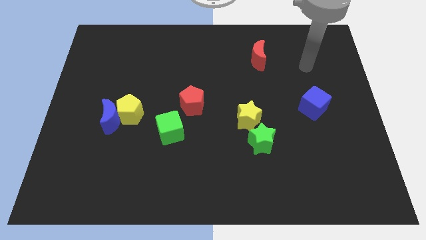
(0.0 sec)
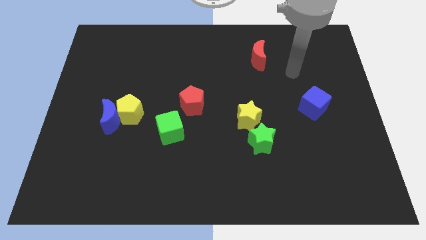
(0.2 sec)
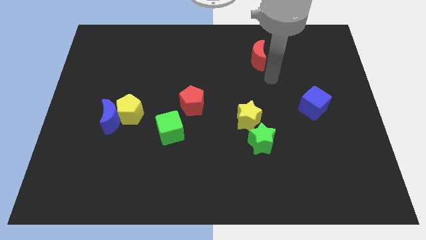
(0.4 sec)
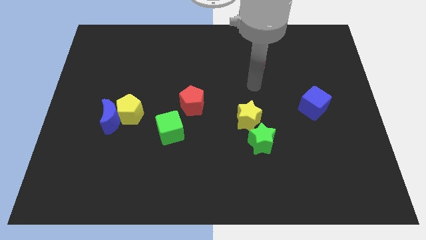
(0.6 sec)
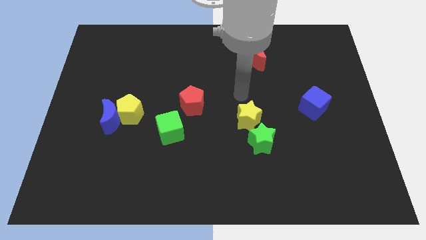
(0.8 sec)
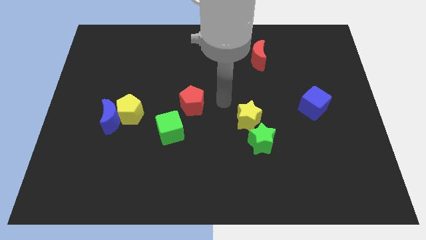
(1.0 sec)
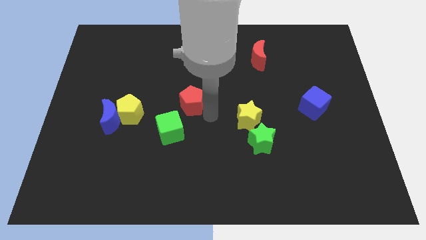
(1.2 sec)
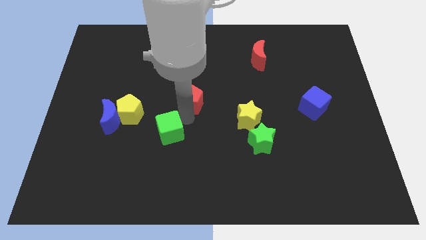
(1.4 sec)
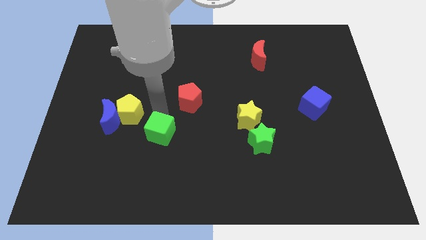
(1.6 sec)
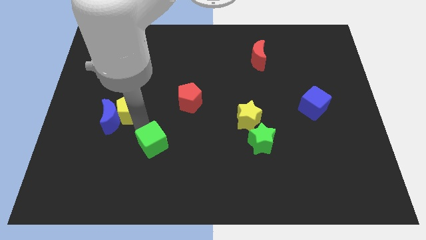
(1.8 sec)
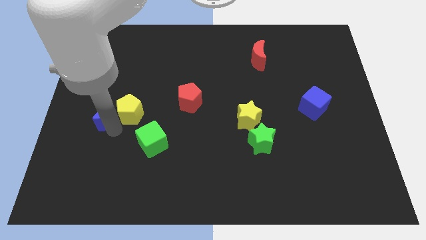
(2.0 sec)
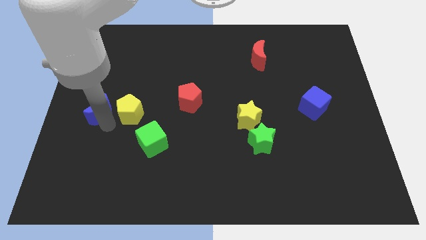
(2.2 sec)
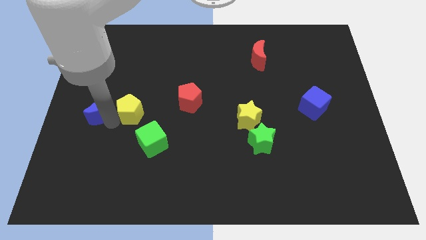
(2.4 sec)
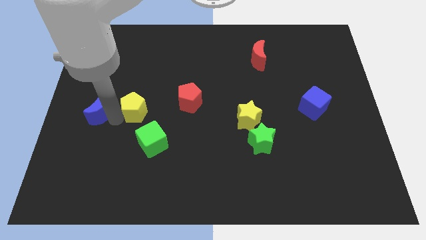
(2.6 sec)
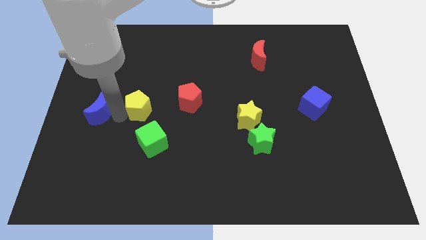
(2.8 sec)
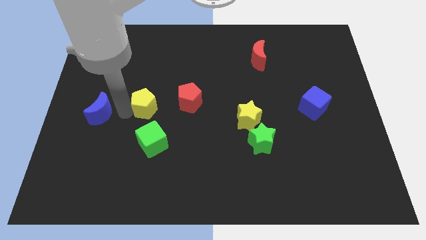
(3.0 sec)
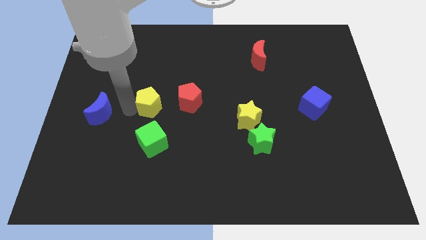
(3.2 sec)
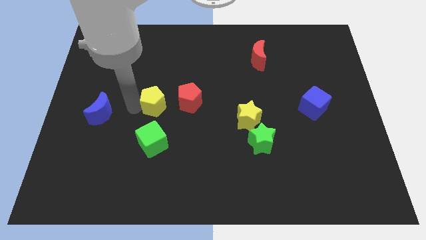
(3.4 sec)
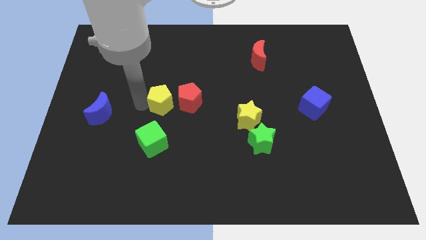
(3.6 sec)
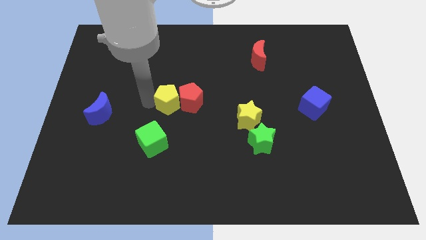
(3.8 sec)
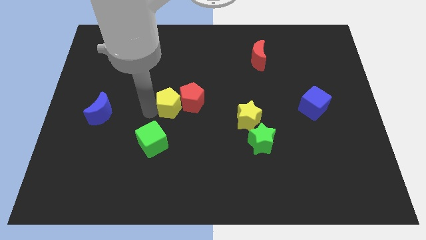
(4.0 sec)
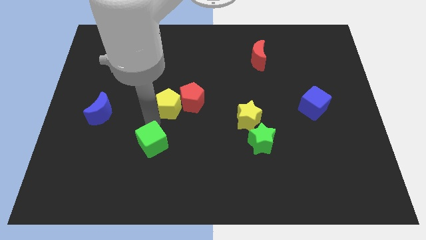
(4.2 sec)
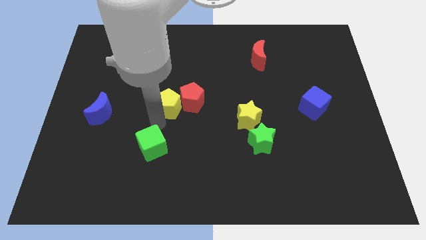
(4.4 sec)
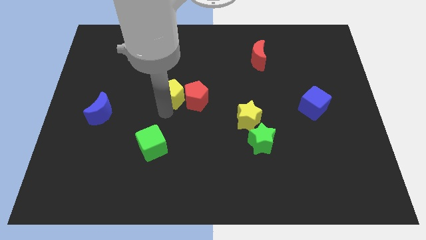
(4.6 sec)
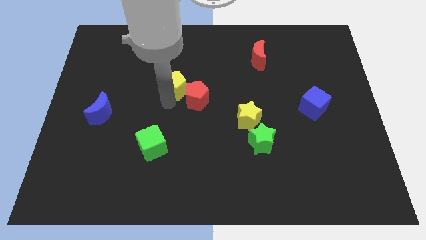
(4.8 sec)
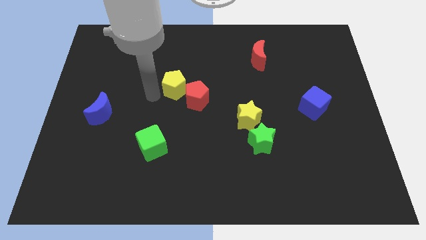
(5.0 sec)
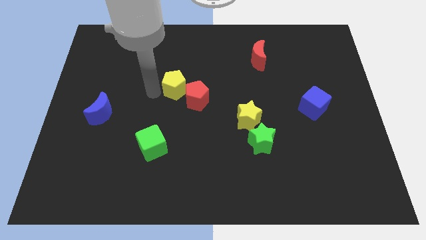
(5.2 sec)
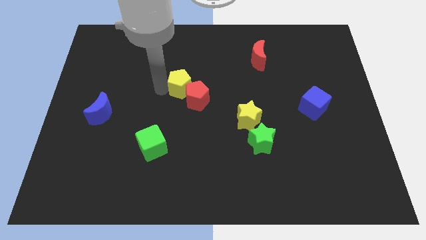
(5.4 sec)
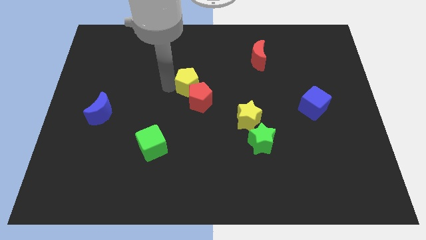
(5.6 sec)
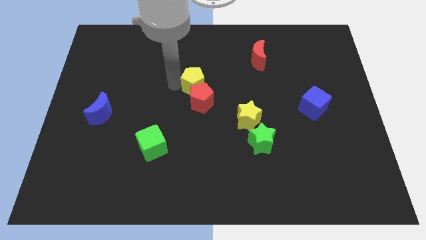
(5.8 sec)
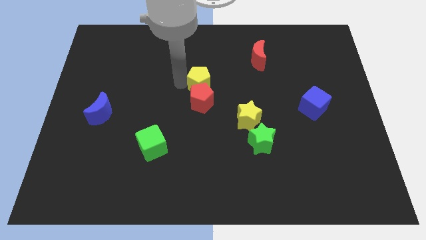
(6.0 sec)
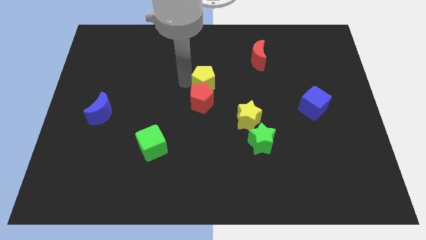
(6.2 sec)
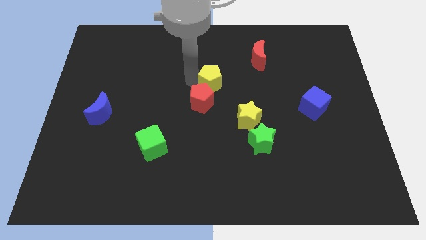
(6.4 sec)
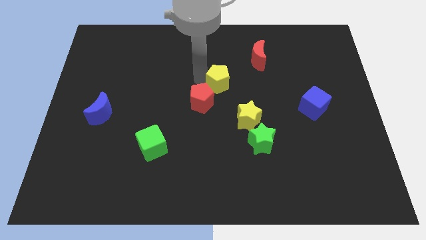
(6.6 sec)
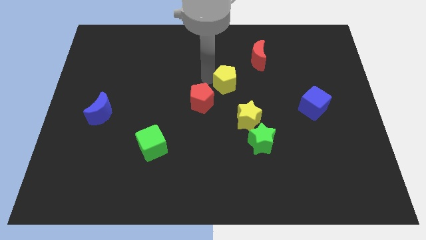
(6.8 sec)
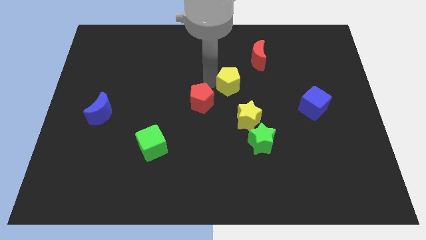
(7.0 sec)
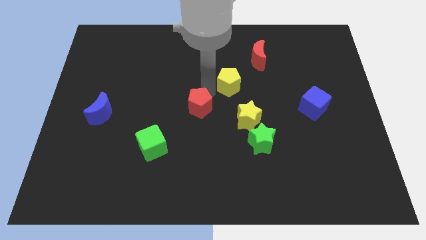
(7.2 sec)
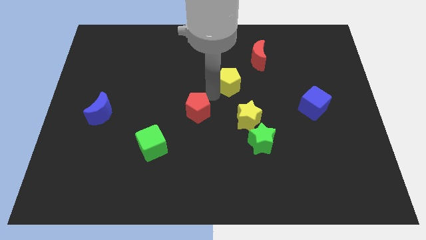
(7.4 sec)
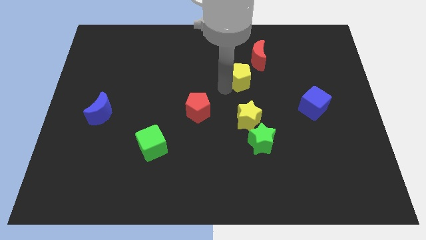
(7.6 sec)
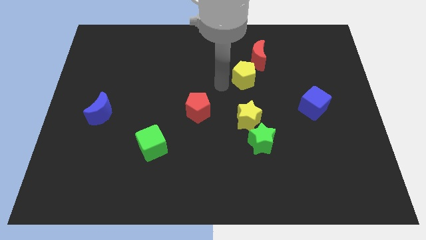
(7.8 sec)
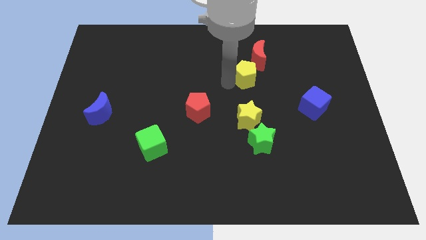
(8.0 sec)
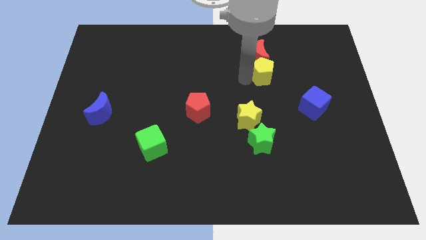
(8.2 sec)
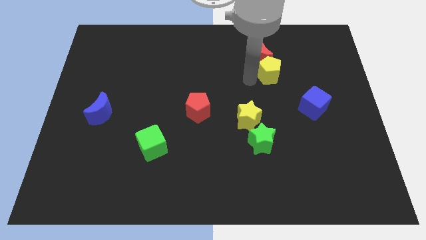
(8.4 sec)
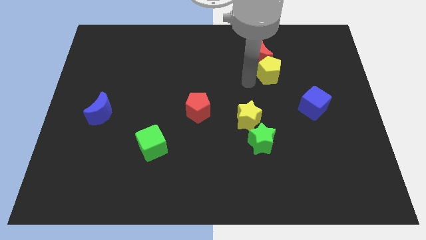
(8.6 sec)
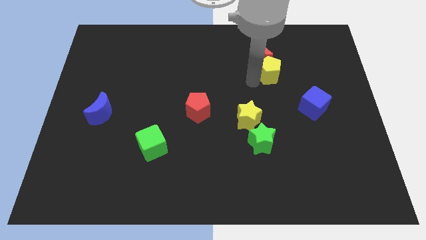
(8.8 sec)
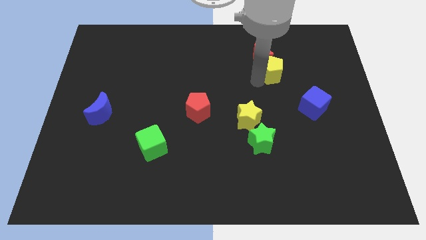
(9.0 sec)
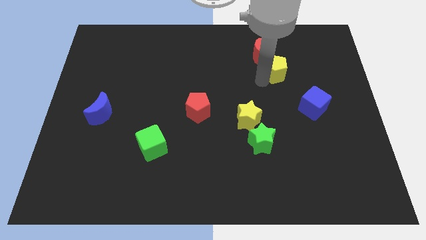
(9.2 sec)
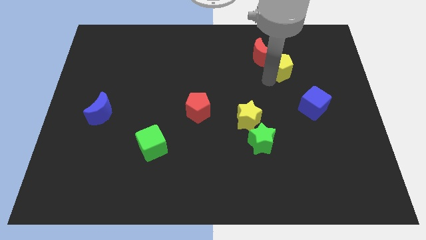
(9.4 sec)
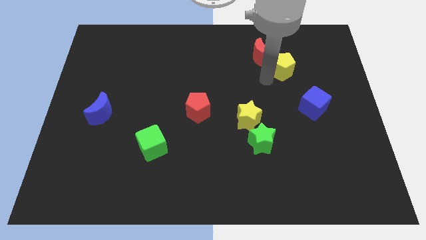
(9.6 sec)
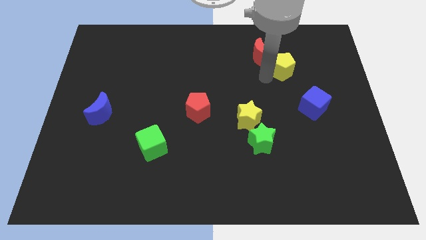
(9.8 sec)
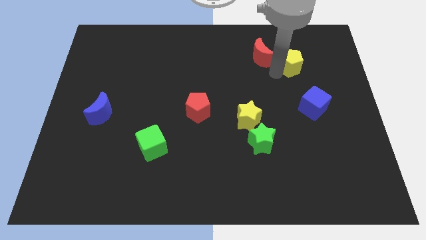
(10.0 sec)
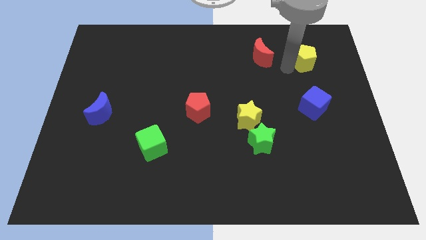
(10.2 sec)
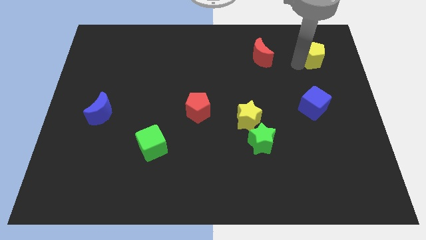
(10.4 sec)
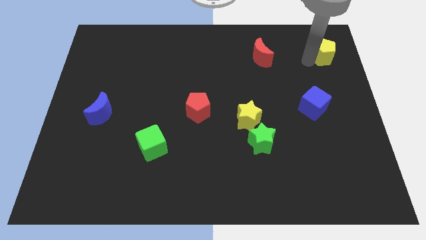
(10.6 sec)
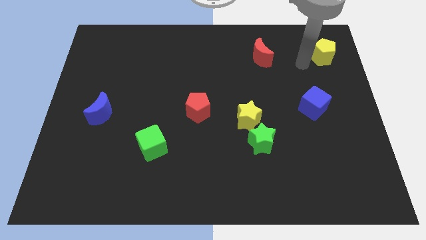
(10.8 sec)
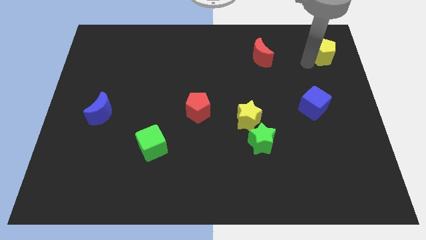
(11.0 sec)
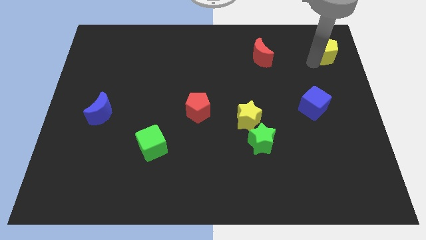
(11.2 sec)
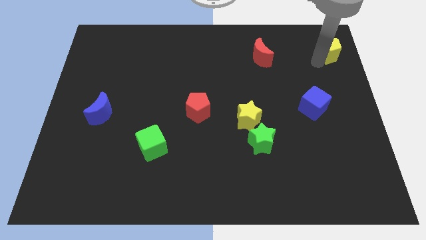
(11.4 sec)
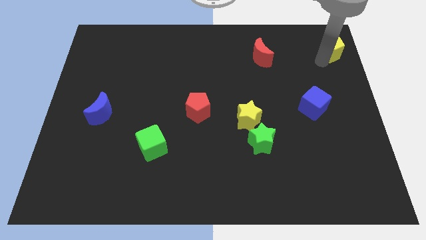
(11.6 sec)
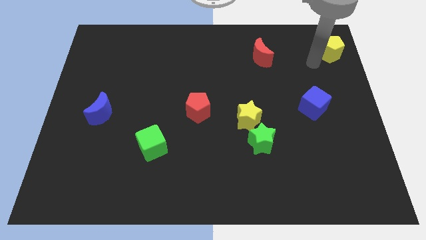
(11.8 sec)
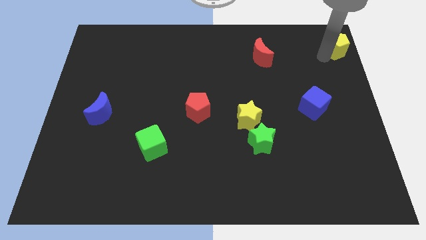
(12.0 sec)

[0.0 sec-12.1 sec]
put the yellow pentagon to the upper right corner
